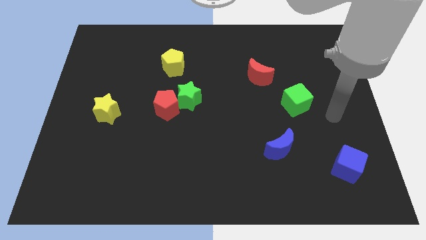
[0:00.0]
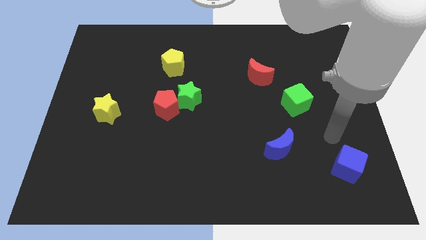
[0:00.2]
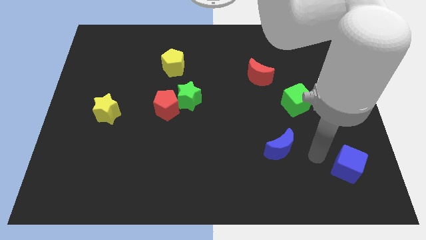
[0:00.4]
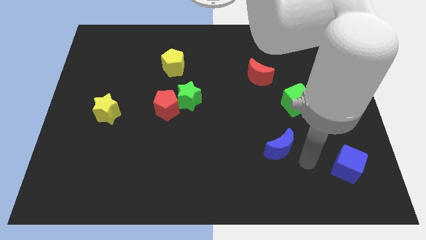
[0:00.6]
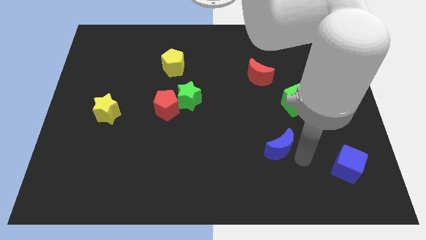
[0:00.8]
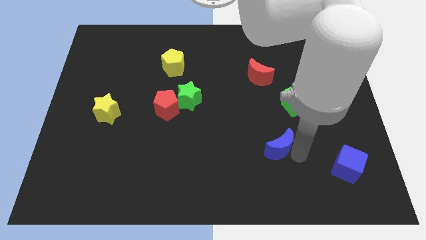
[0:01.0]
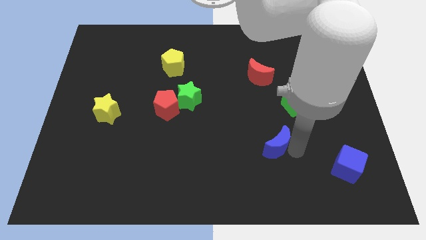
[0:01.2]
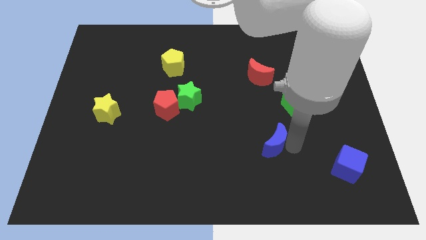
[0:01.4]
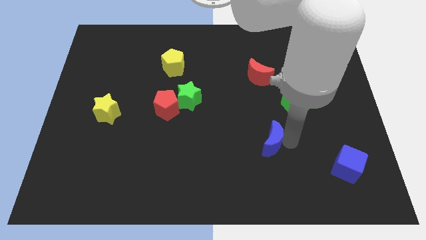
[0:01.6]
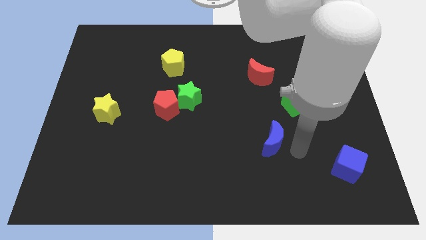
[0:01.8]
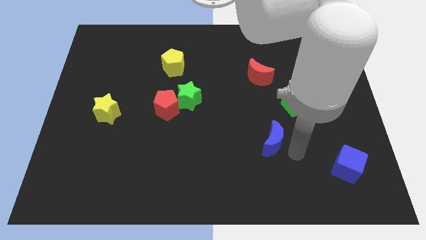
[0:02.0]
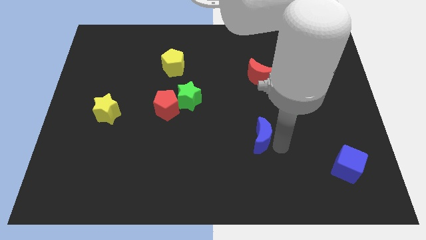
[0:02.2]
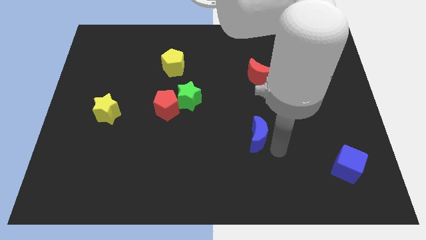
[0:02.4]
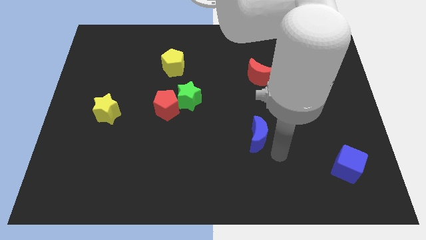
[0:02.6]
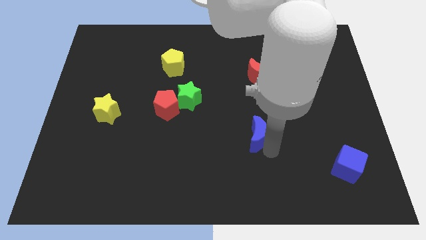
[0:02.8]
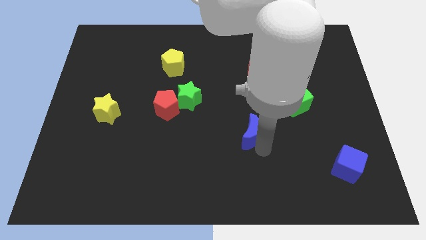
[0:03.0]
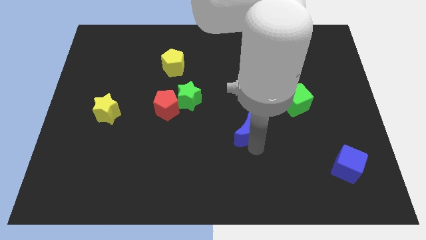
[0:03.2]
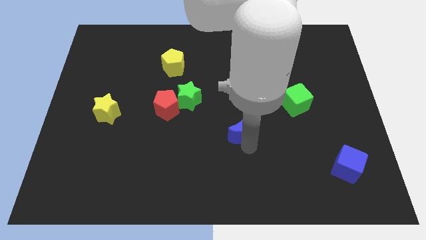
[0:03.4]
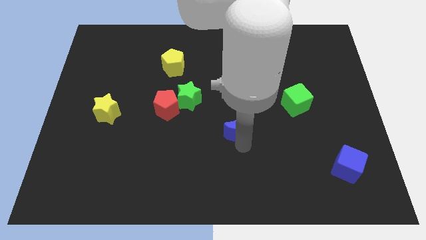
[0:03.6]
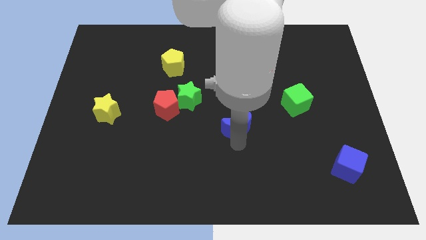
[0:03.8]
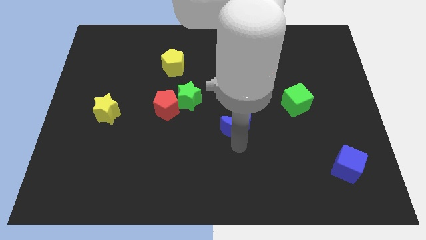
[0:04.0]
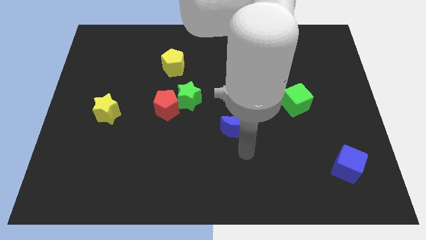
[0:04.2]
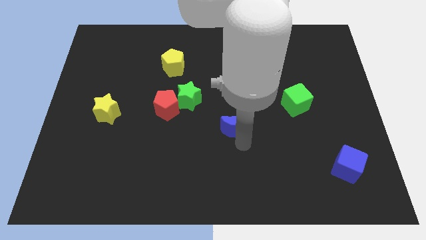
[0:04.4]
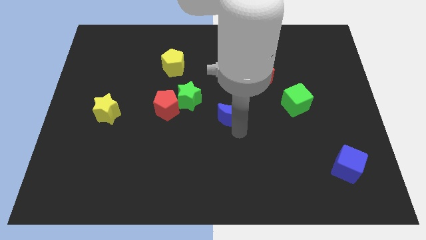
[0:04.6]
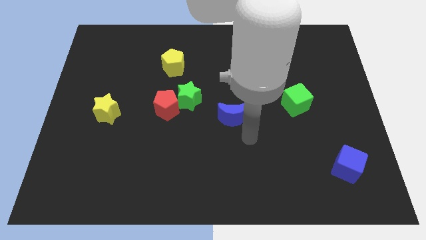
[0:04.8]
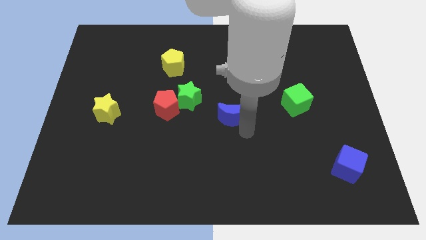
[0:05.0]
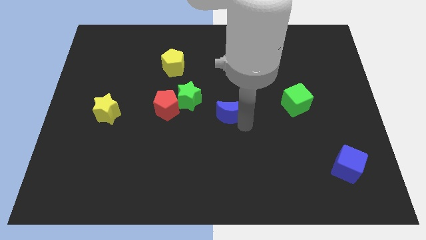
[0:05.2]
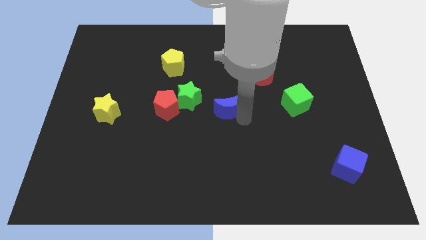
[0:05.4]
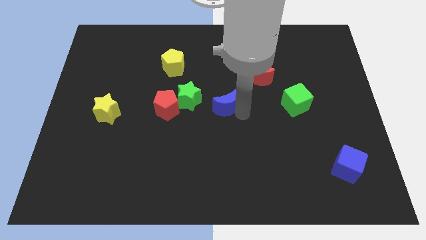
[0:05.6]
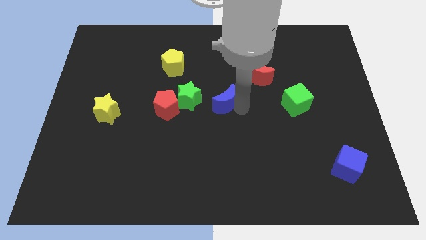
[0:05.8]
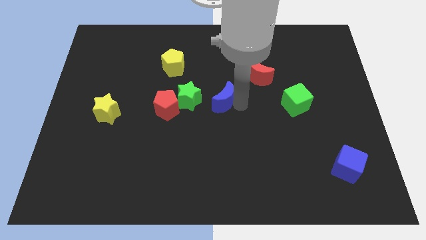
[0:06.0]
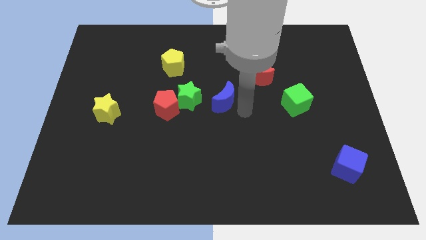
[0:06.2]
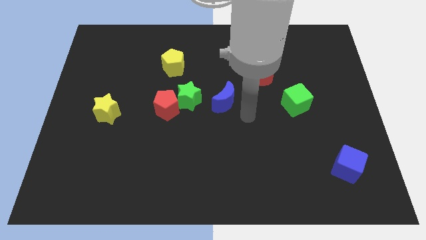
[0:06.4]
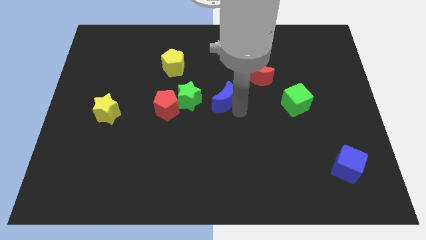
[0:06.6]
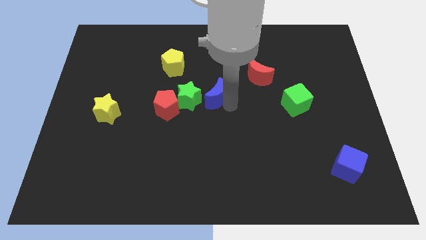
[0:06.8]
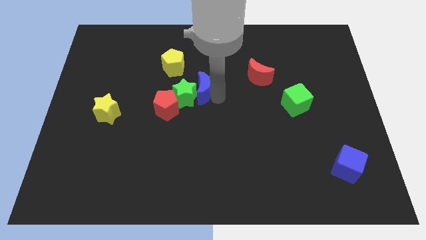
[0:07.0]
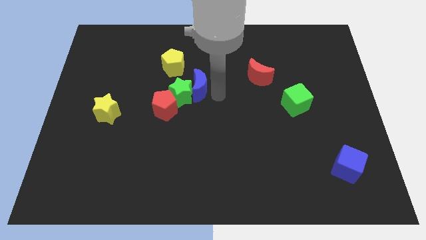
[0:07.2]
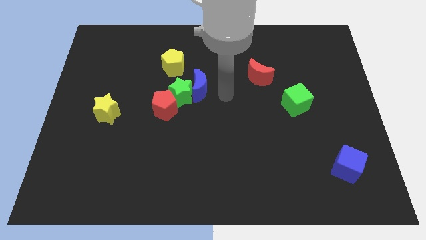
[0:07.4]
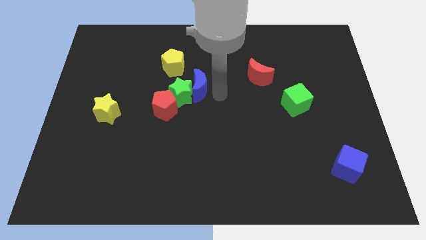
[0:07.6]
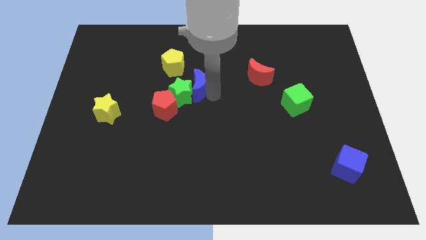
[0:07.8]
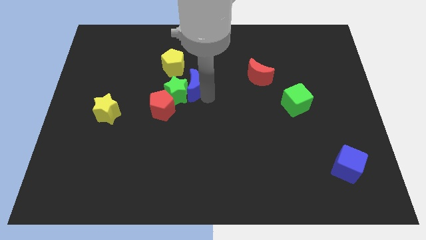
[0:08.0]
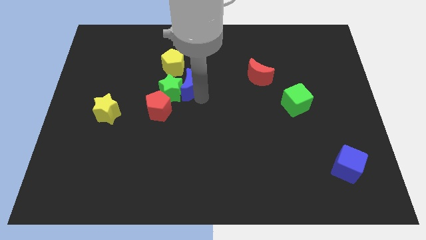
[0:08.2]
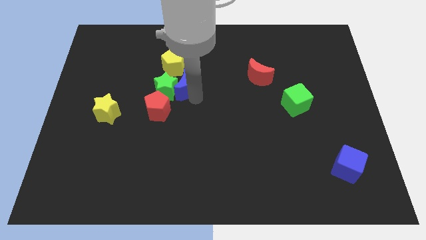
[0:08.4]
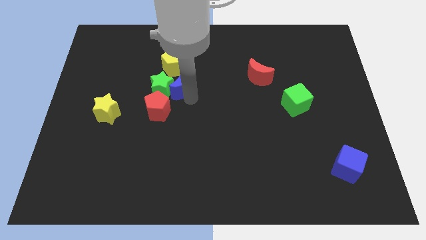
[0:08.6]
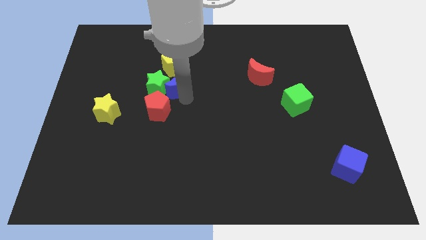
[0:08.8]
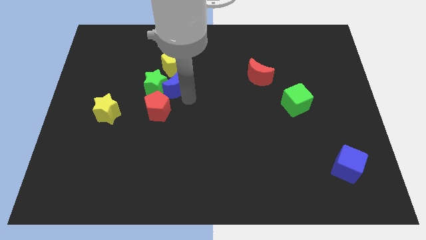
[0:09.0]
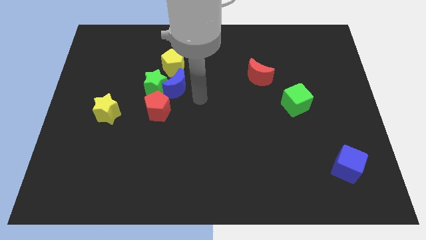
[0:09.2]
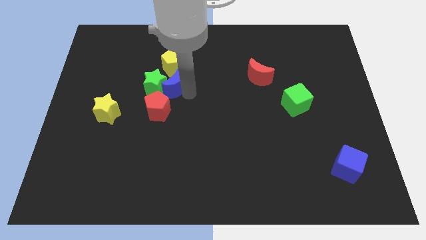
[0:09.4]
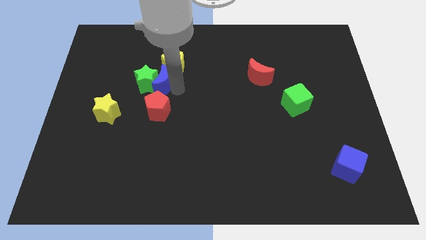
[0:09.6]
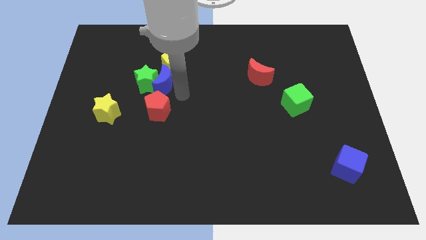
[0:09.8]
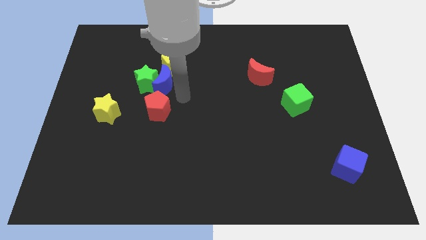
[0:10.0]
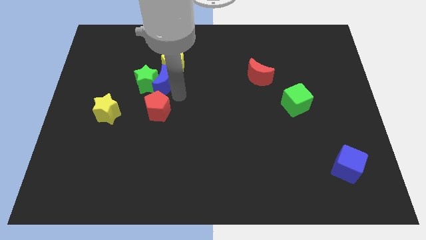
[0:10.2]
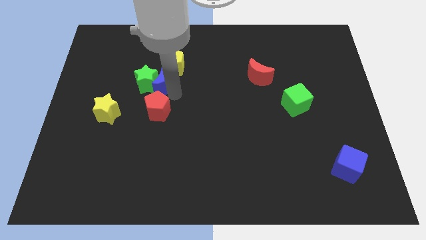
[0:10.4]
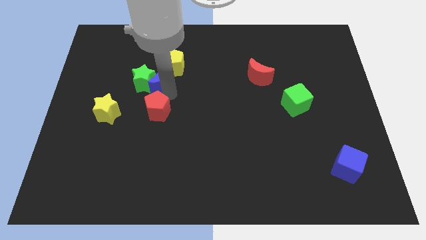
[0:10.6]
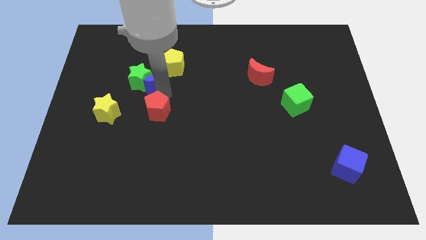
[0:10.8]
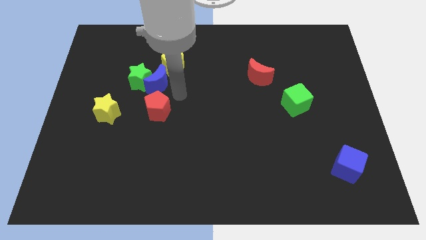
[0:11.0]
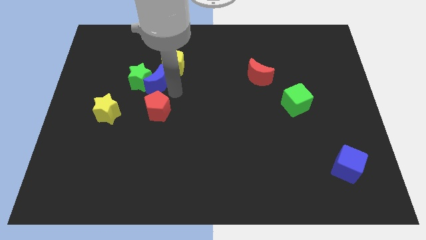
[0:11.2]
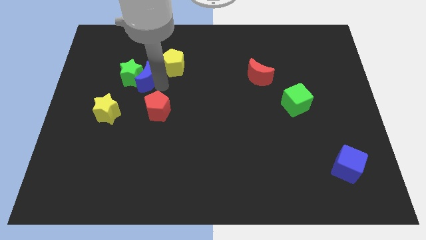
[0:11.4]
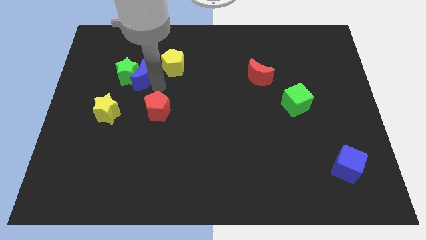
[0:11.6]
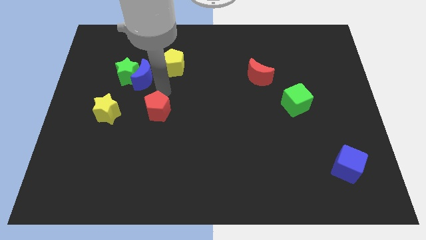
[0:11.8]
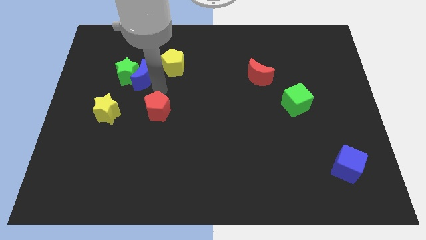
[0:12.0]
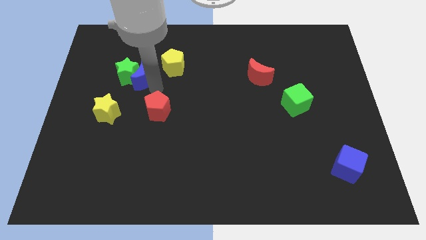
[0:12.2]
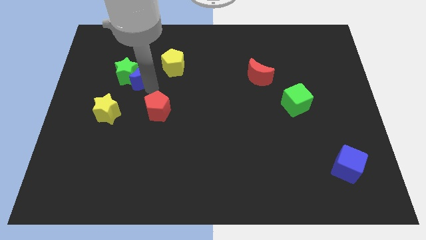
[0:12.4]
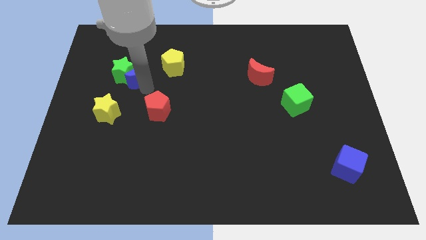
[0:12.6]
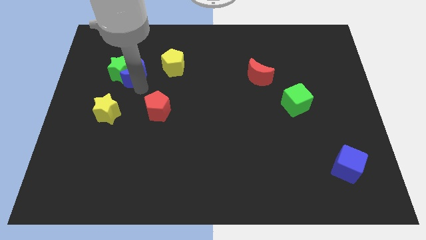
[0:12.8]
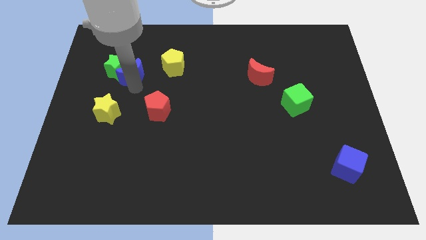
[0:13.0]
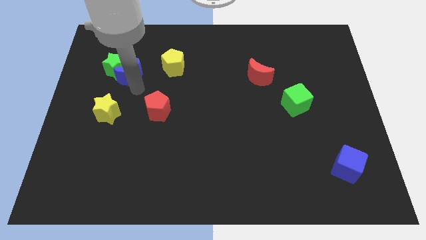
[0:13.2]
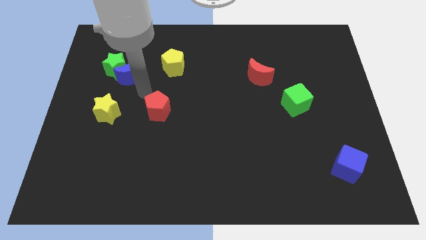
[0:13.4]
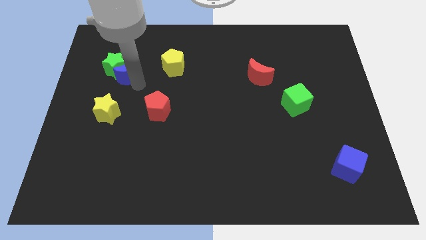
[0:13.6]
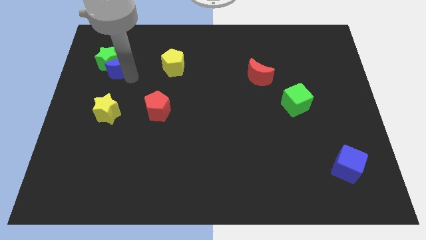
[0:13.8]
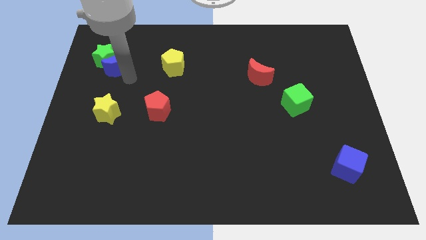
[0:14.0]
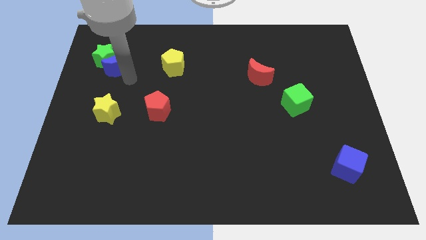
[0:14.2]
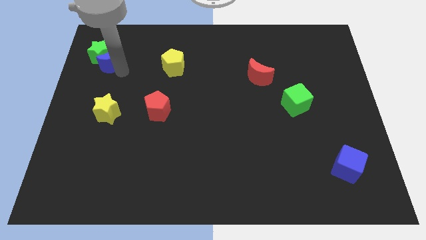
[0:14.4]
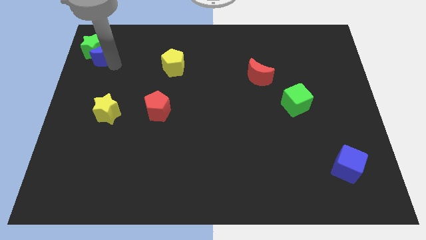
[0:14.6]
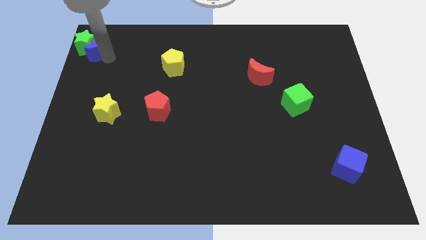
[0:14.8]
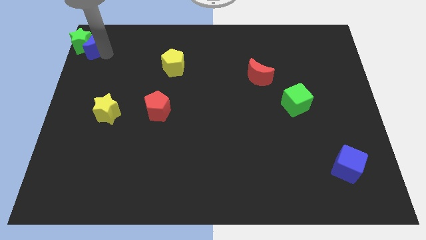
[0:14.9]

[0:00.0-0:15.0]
slide the blue moon to the upper left corner
